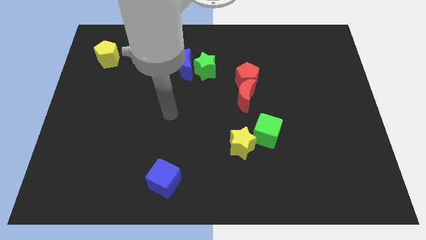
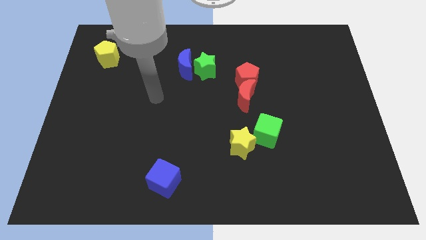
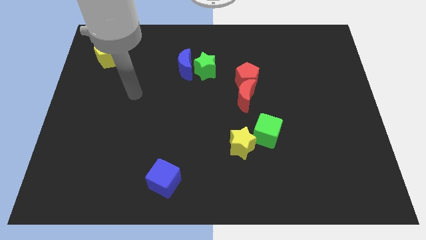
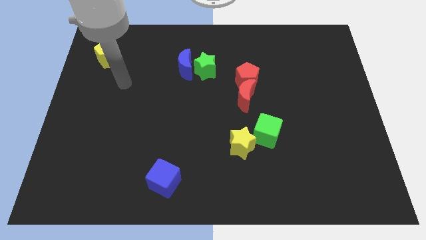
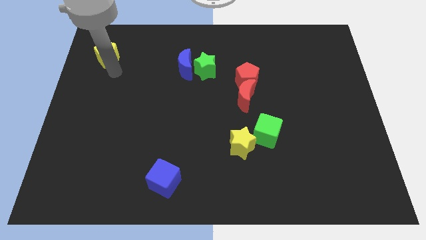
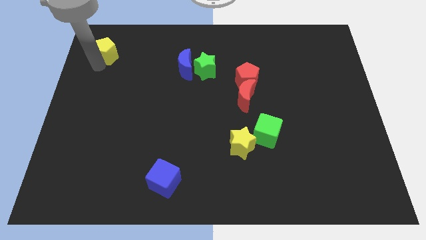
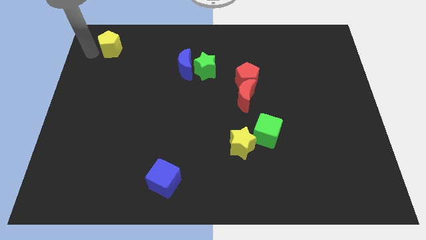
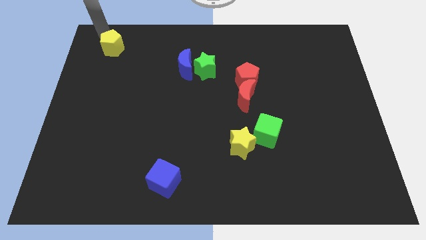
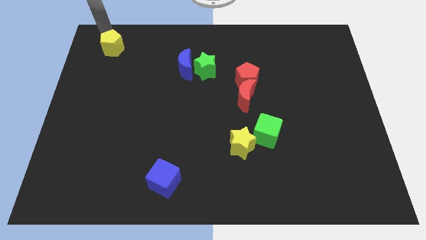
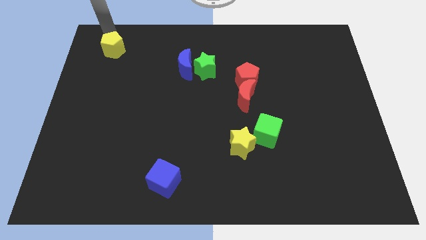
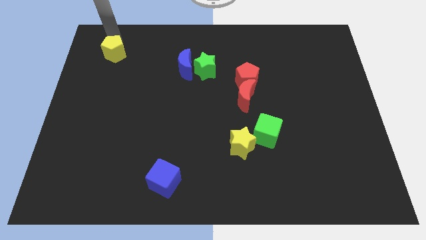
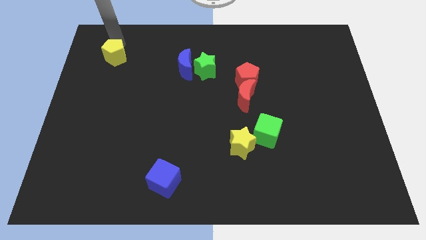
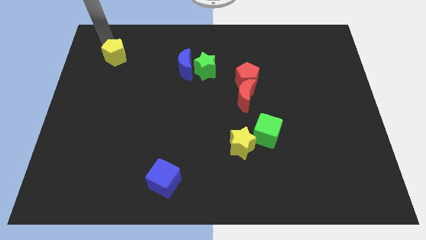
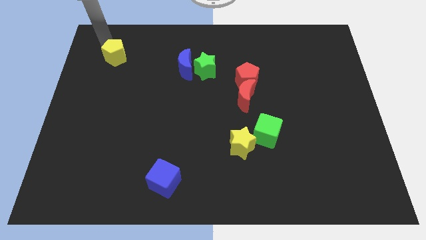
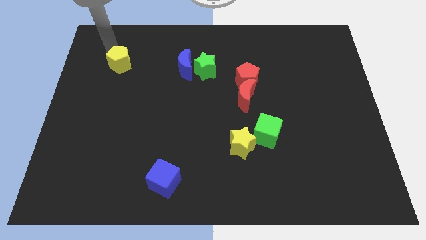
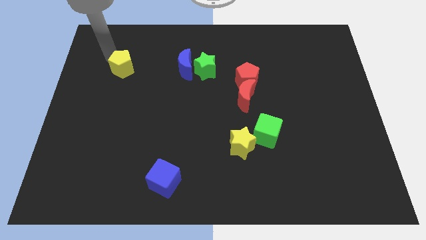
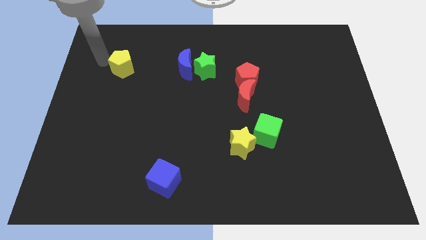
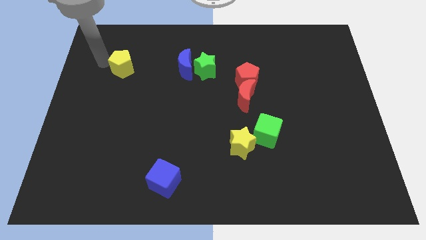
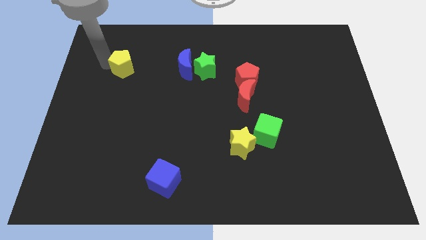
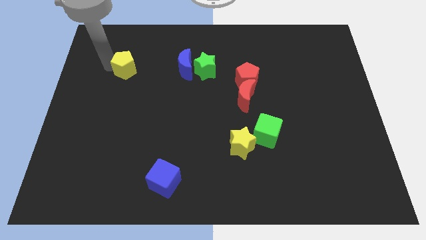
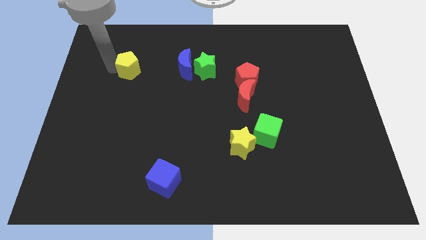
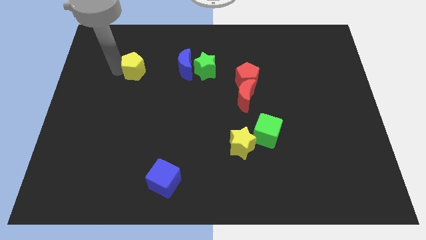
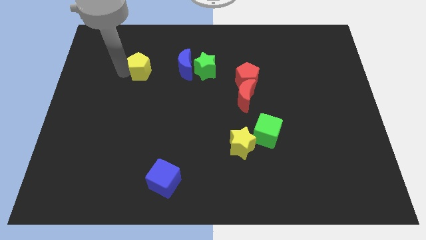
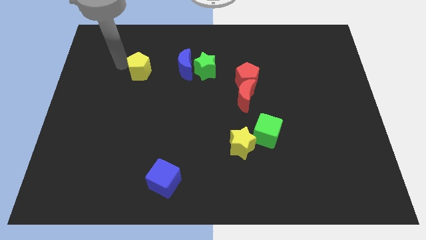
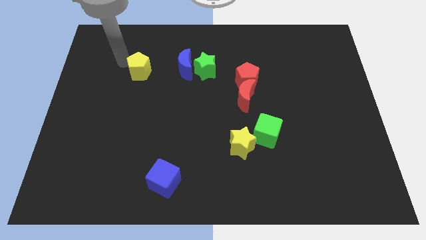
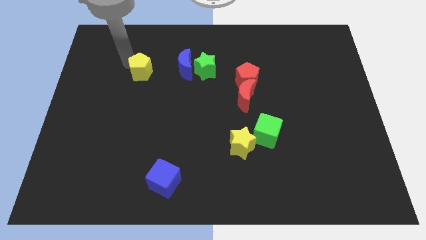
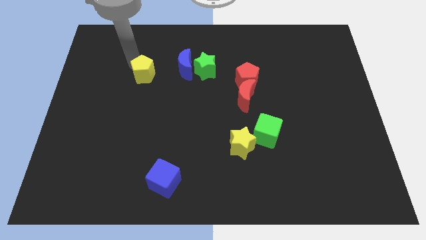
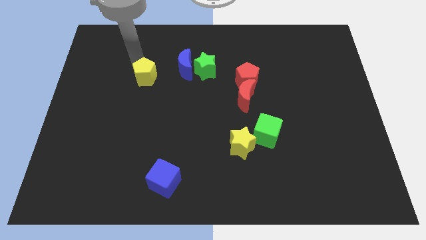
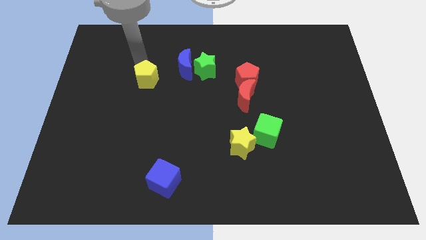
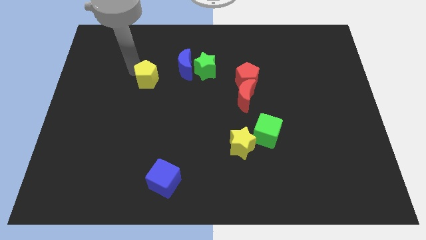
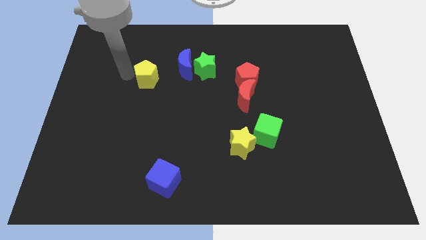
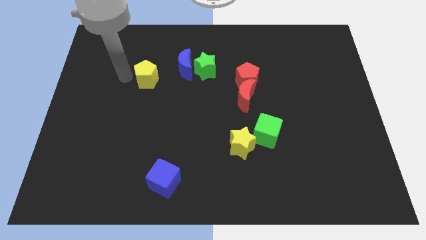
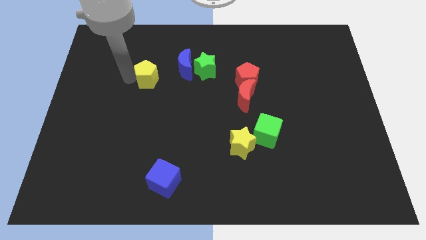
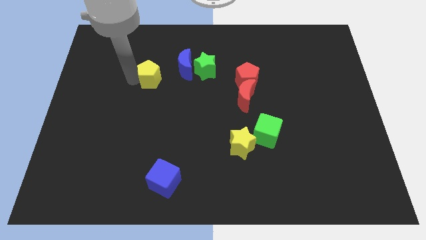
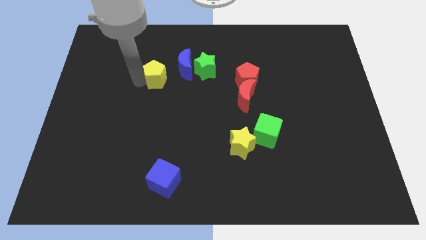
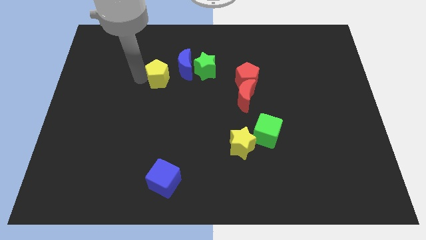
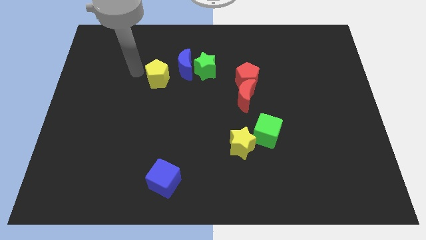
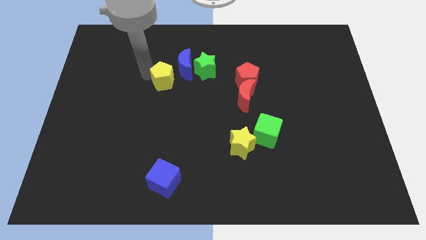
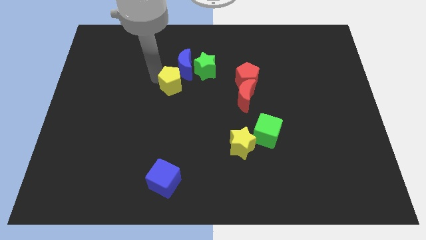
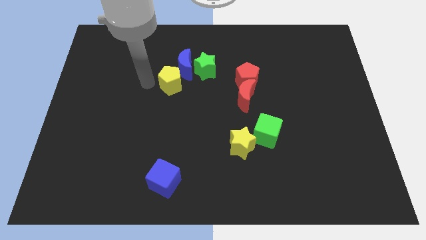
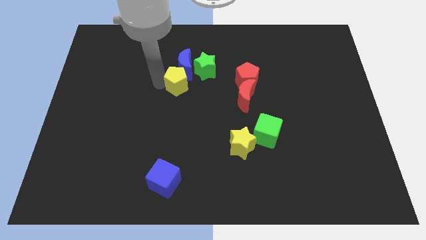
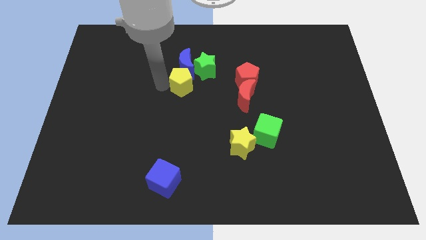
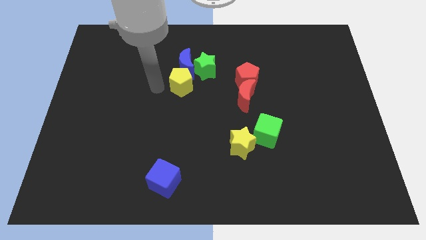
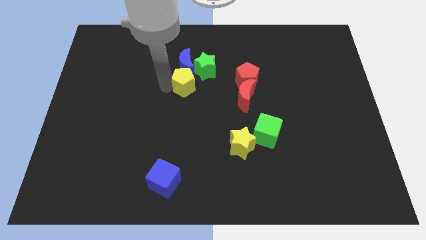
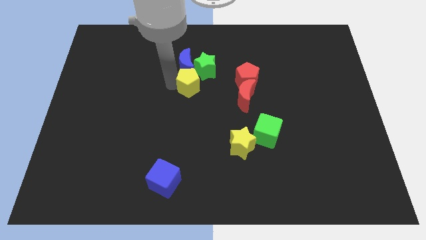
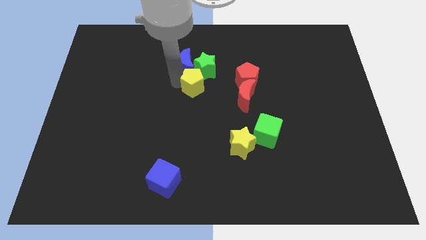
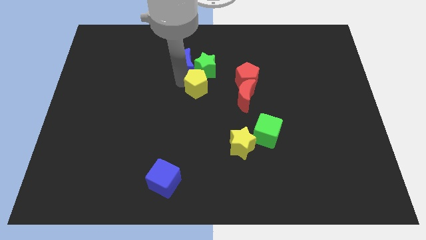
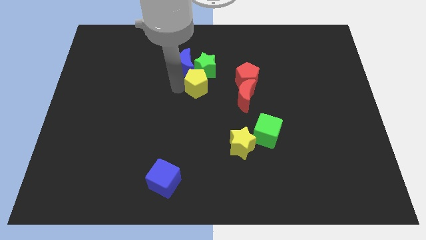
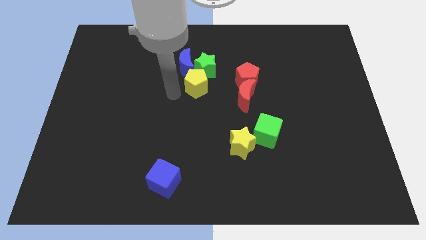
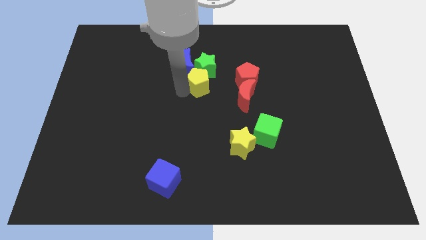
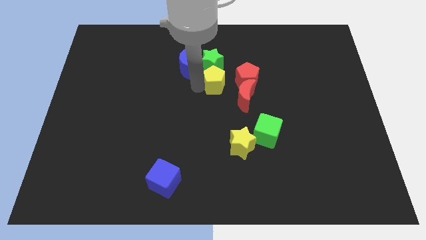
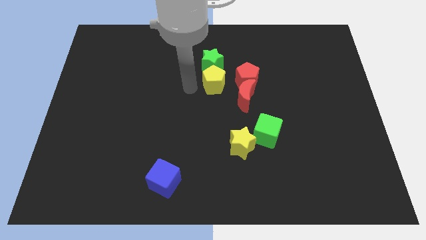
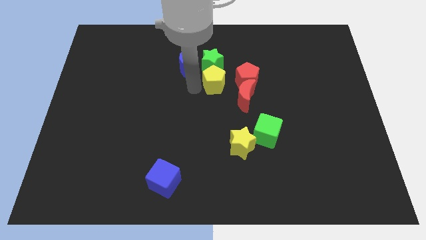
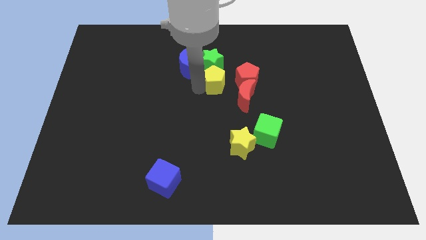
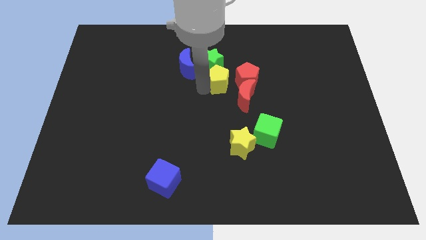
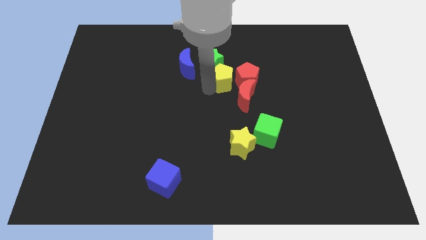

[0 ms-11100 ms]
slide the yellow pentagon close to the red pentagon

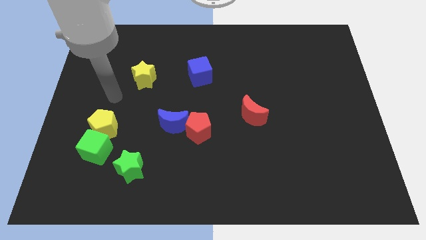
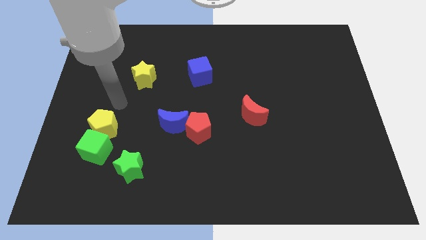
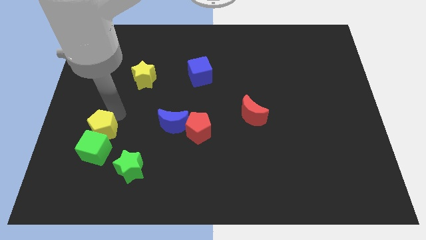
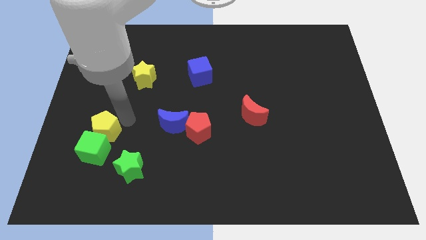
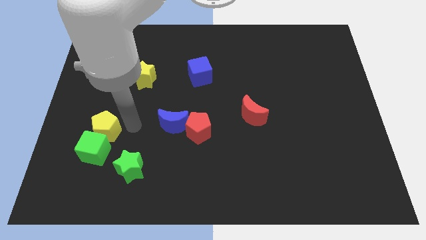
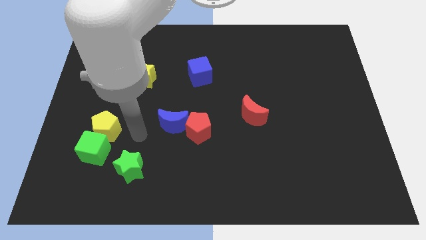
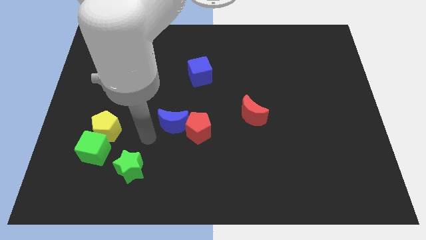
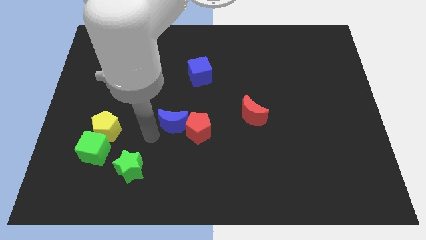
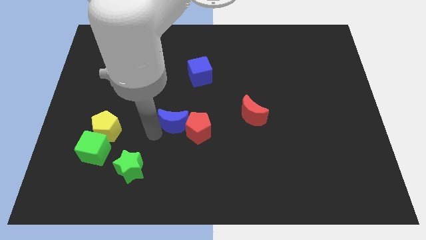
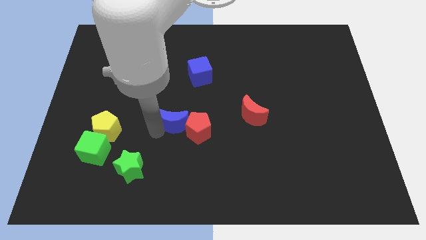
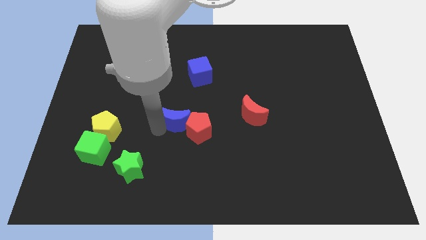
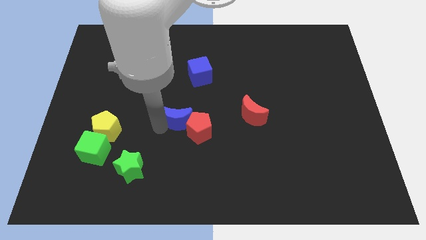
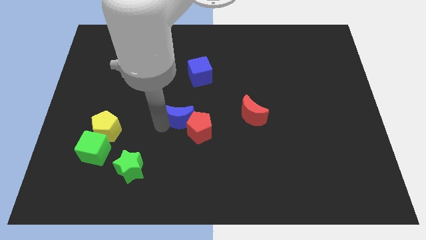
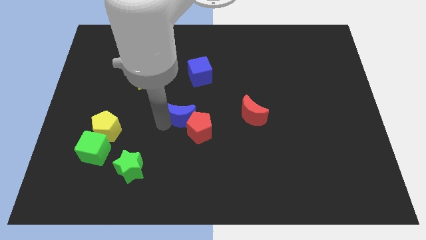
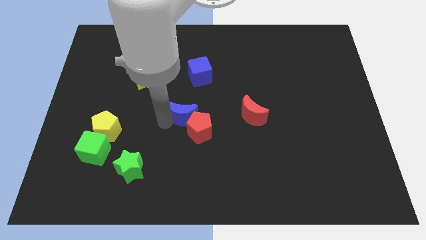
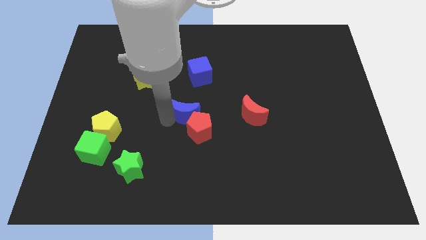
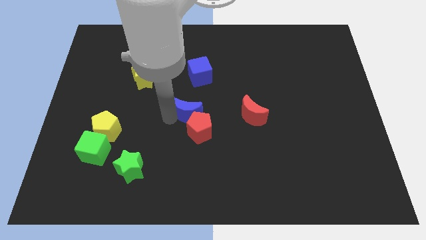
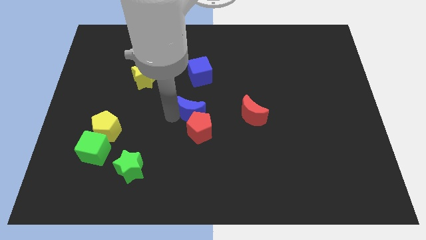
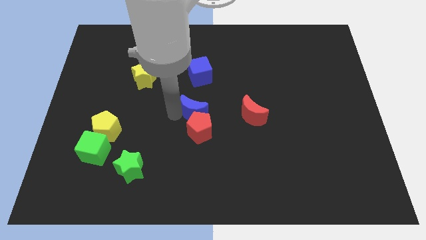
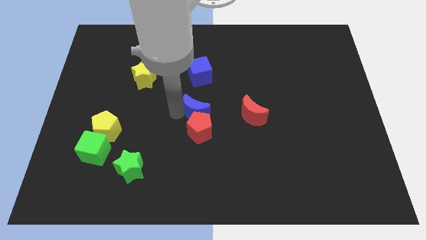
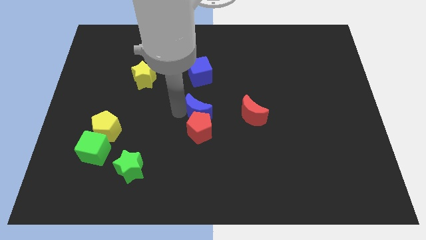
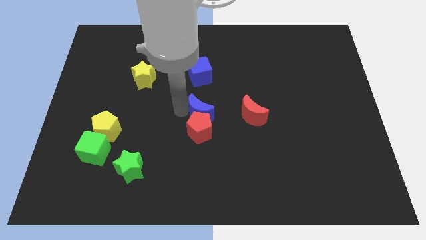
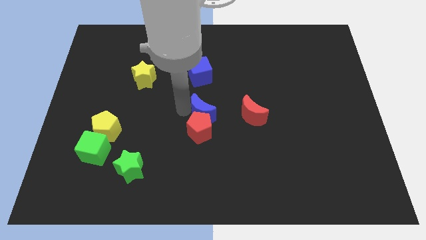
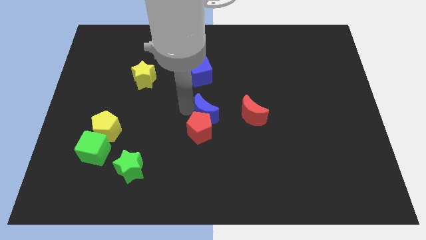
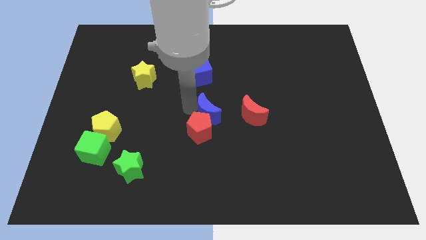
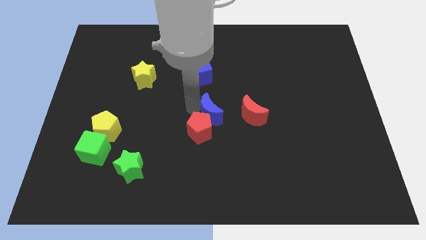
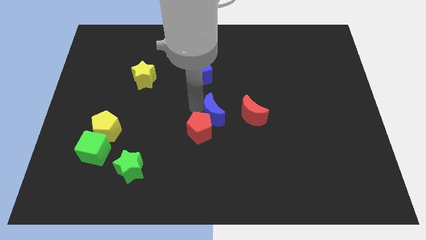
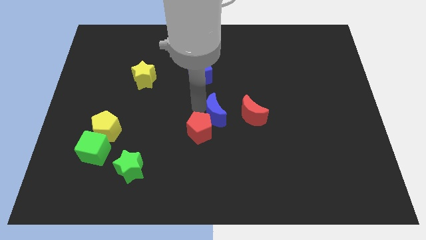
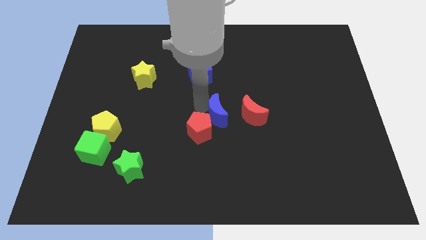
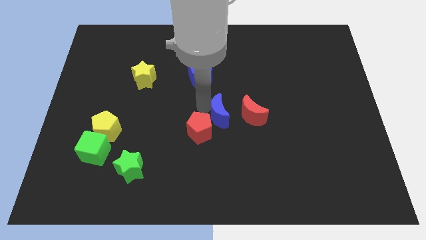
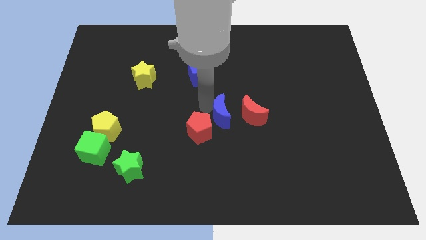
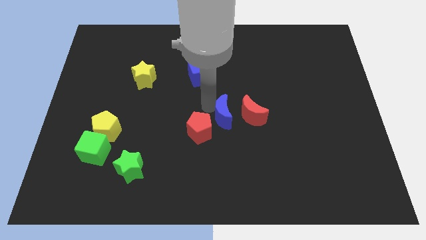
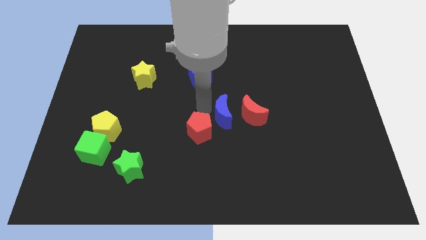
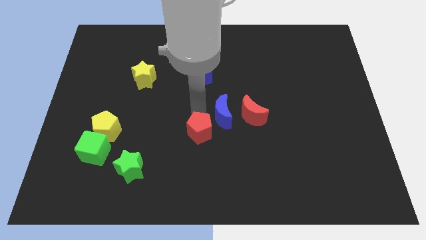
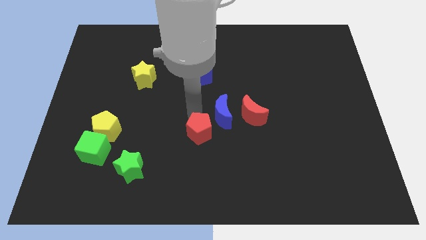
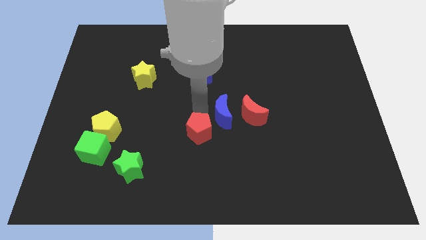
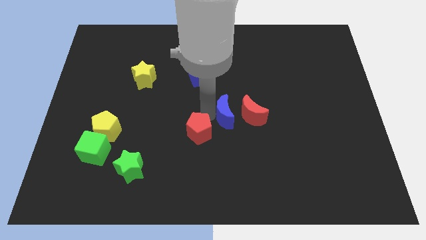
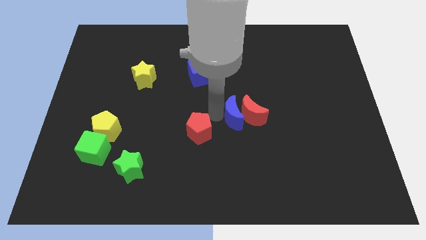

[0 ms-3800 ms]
put the blue moon close to the red moon
